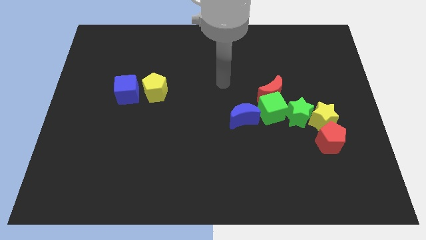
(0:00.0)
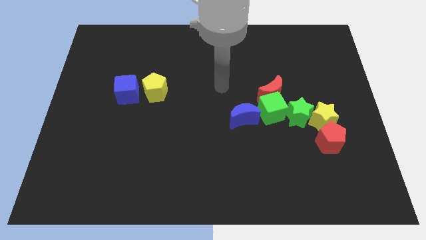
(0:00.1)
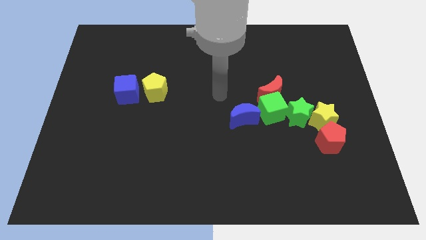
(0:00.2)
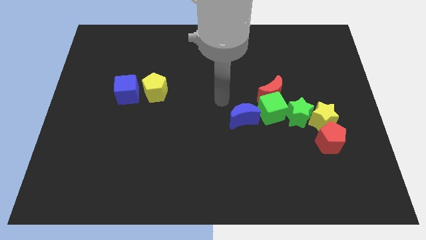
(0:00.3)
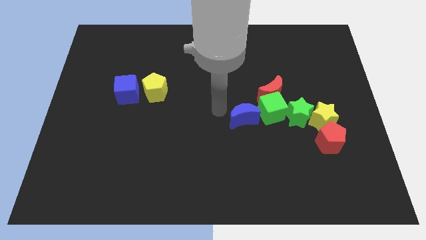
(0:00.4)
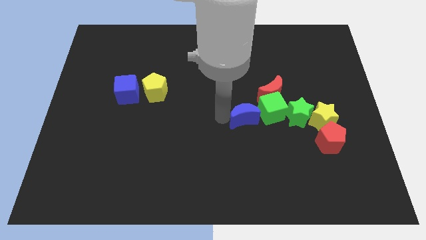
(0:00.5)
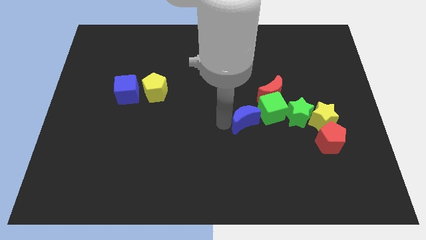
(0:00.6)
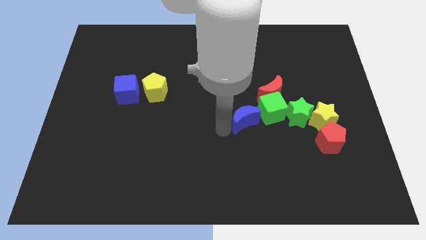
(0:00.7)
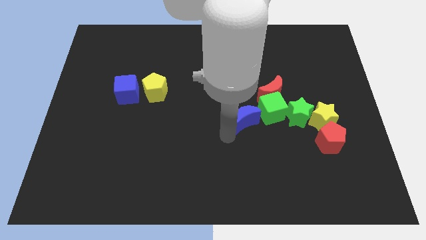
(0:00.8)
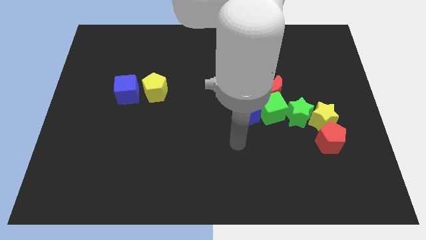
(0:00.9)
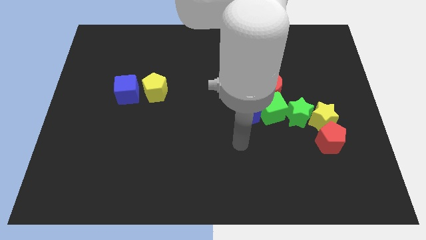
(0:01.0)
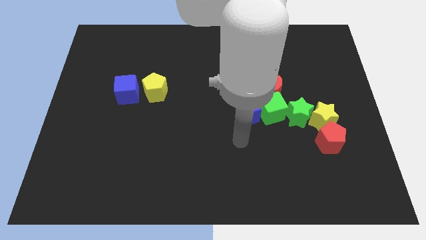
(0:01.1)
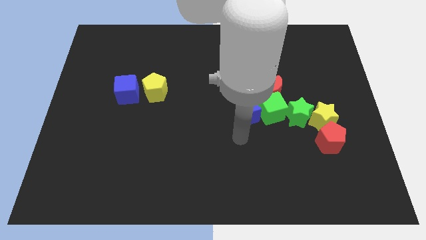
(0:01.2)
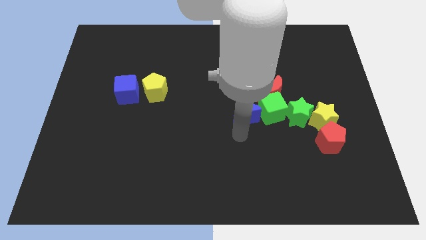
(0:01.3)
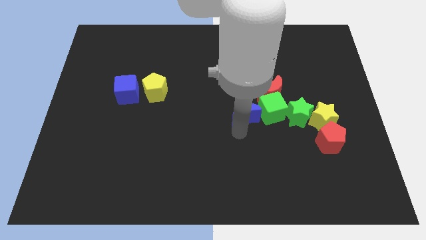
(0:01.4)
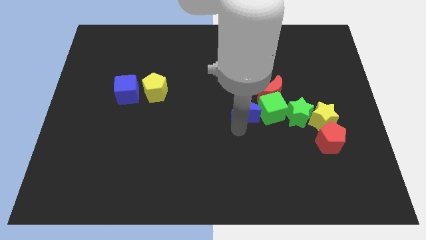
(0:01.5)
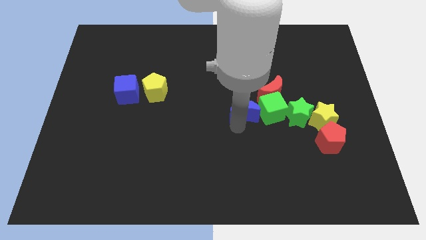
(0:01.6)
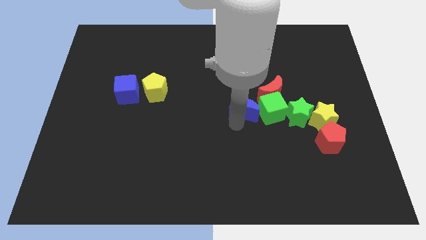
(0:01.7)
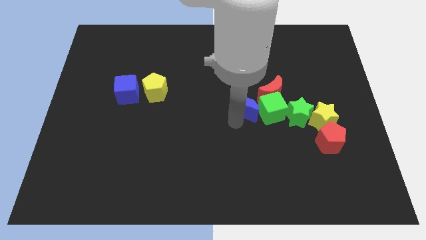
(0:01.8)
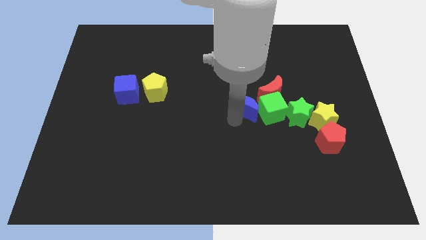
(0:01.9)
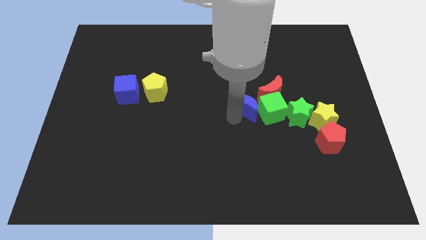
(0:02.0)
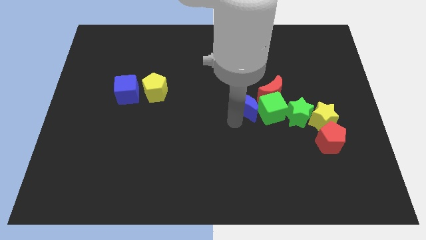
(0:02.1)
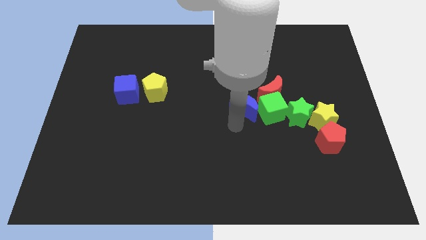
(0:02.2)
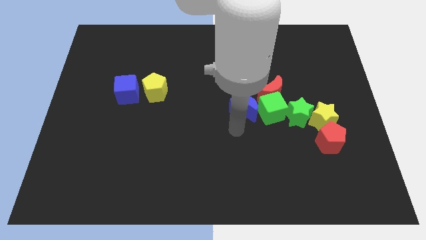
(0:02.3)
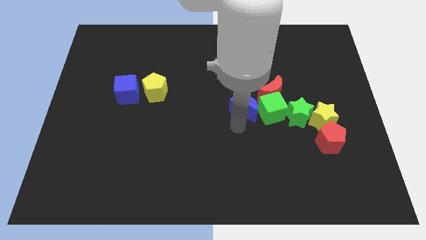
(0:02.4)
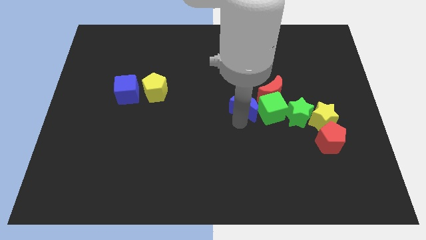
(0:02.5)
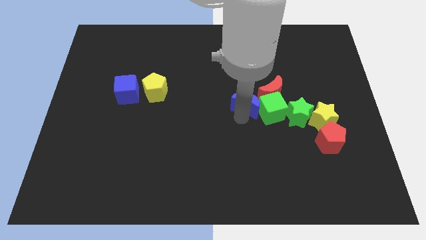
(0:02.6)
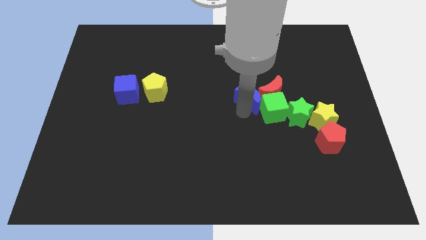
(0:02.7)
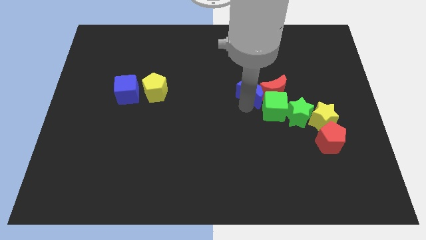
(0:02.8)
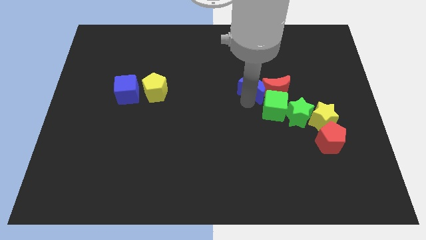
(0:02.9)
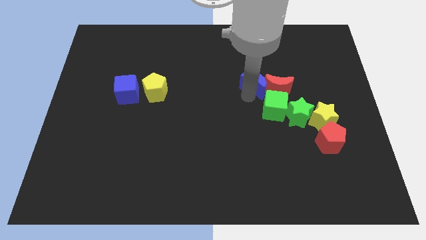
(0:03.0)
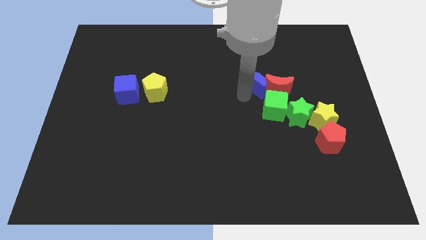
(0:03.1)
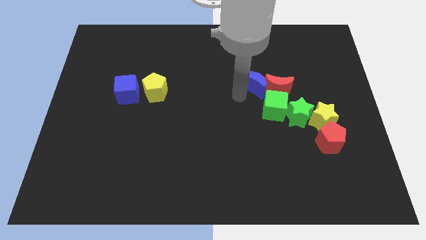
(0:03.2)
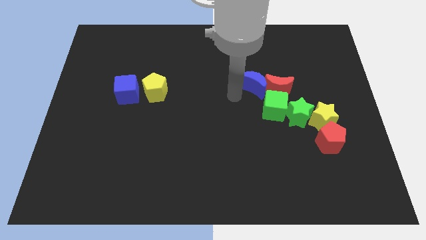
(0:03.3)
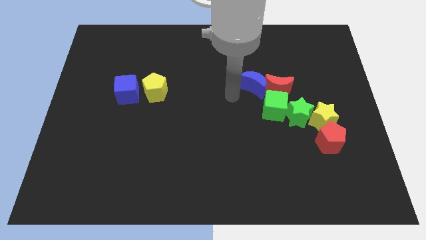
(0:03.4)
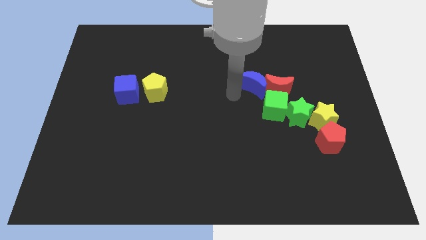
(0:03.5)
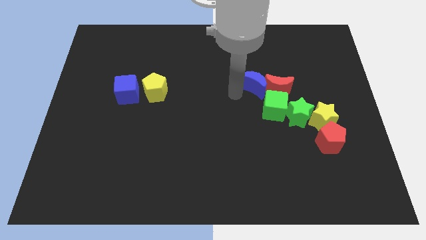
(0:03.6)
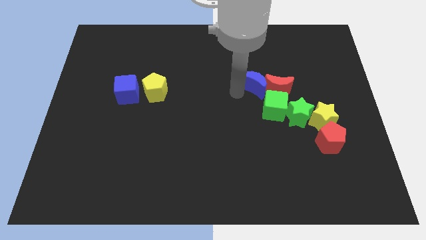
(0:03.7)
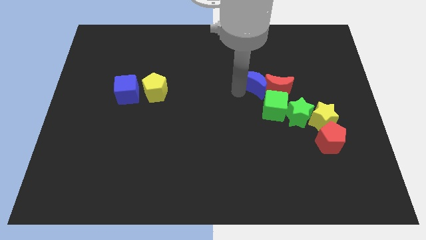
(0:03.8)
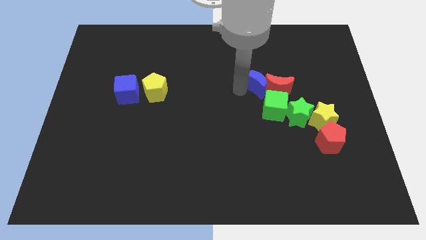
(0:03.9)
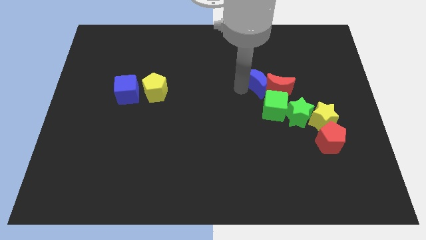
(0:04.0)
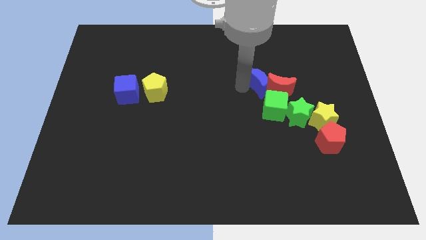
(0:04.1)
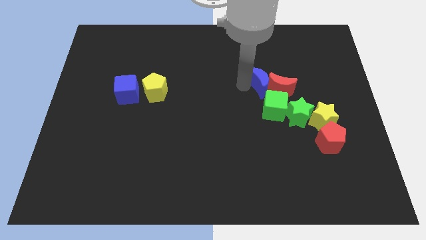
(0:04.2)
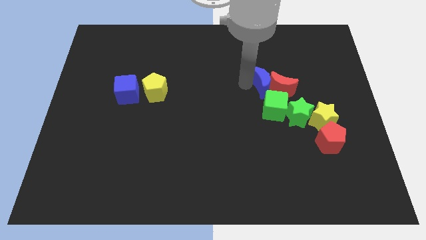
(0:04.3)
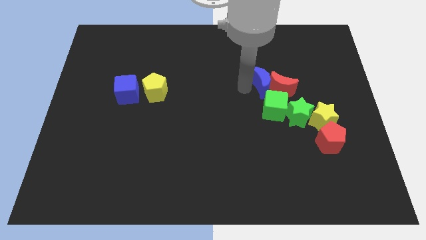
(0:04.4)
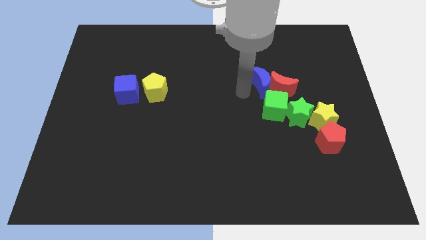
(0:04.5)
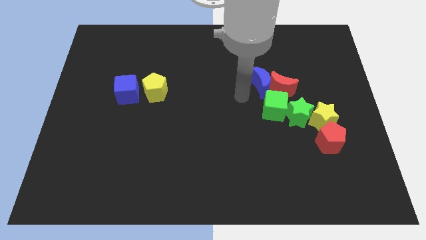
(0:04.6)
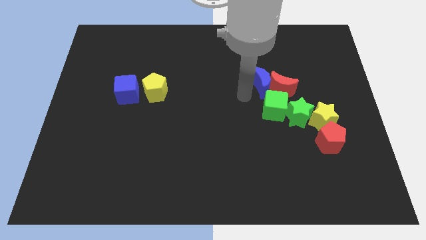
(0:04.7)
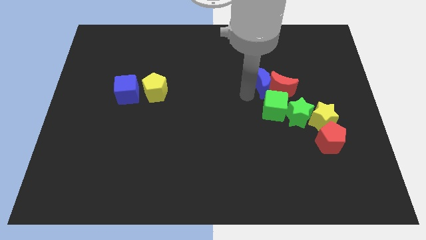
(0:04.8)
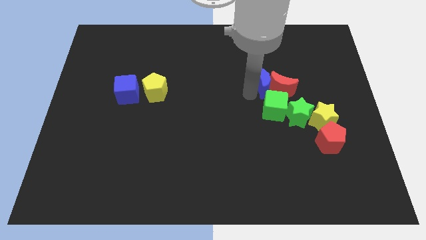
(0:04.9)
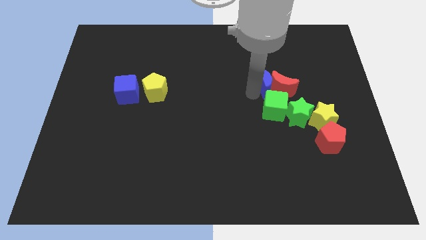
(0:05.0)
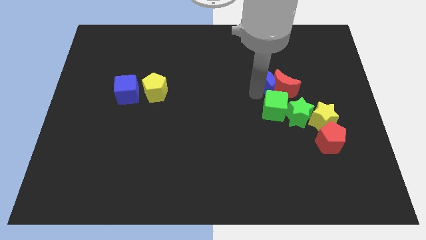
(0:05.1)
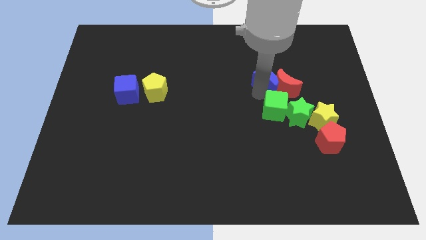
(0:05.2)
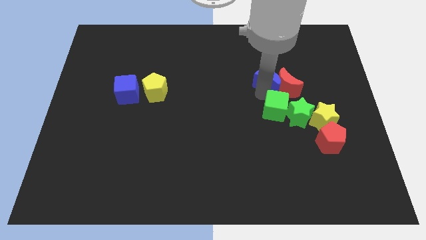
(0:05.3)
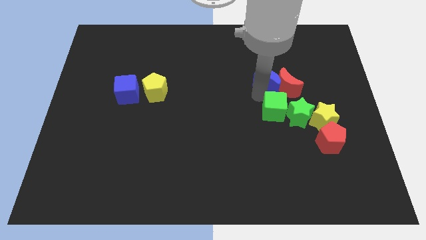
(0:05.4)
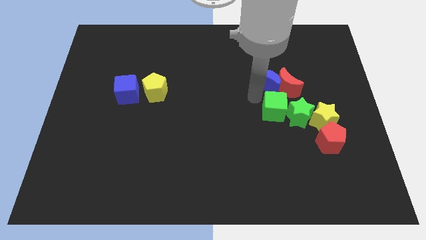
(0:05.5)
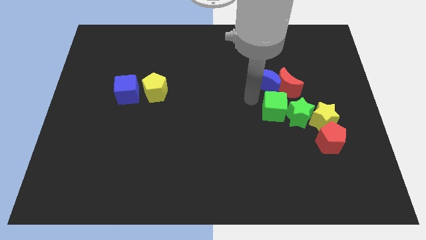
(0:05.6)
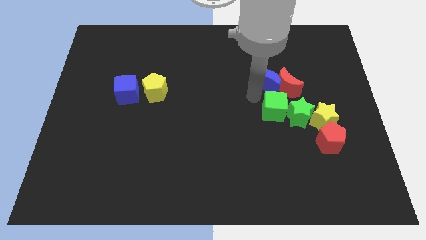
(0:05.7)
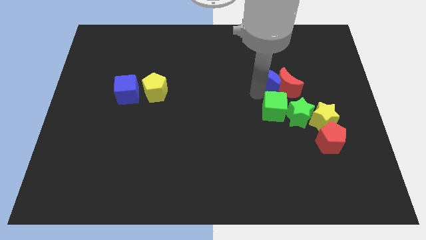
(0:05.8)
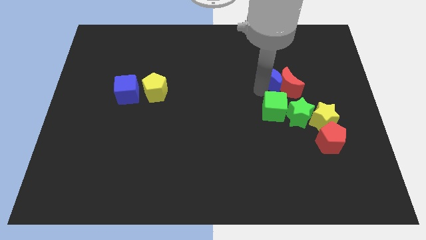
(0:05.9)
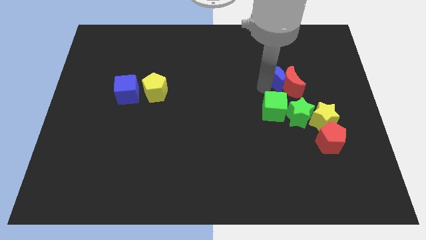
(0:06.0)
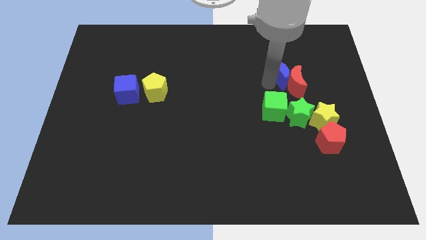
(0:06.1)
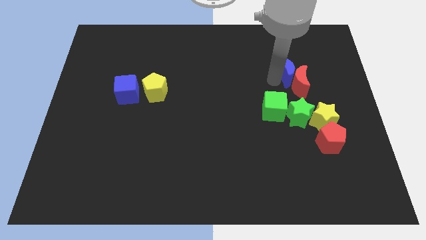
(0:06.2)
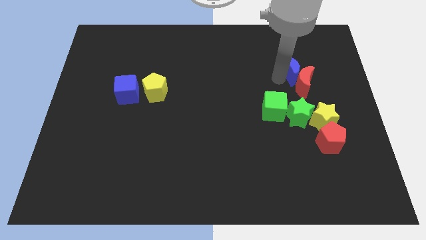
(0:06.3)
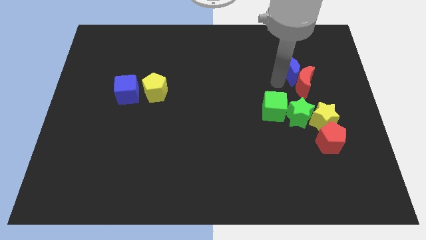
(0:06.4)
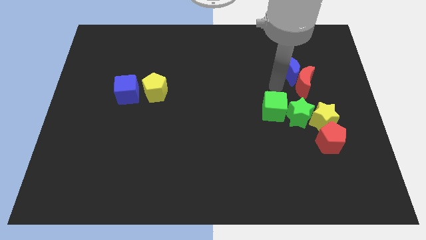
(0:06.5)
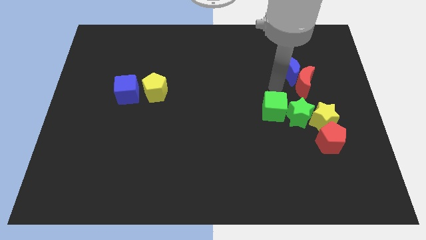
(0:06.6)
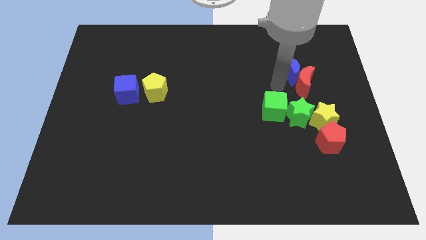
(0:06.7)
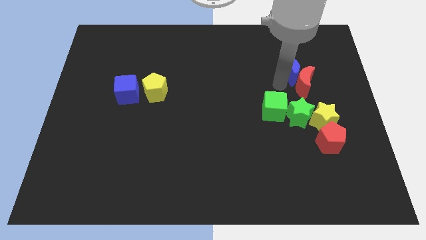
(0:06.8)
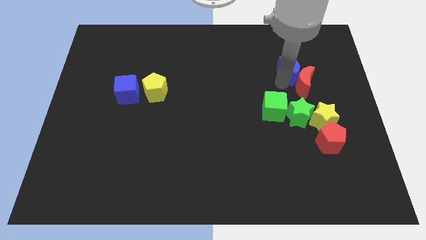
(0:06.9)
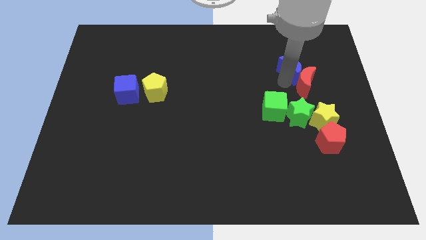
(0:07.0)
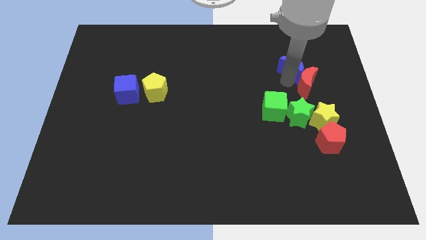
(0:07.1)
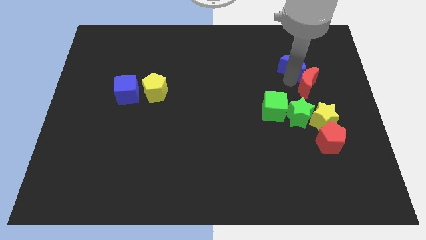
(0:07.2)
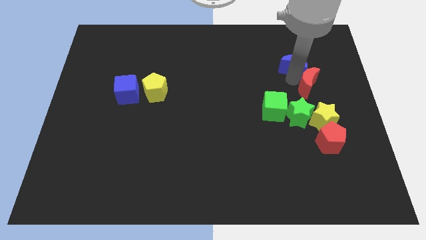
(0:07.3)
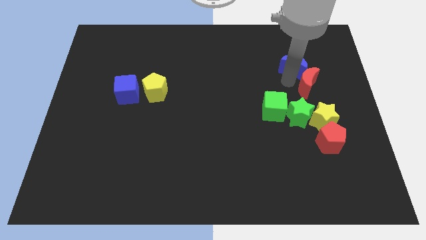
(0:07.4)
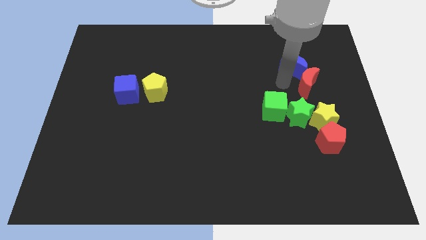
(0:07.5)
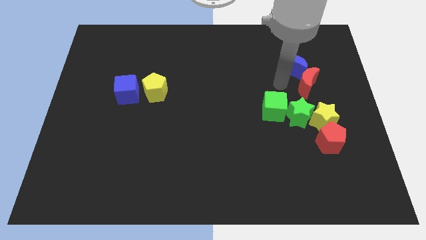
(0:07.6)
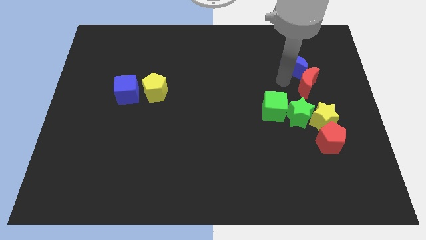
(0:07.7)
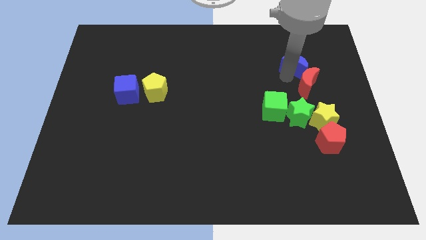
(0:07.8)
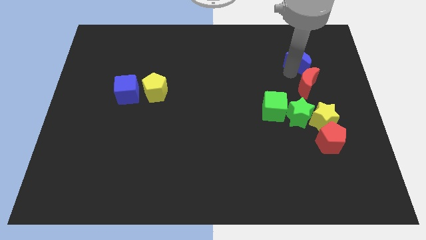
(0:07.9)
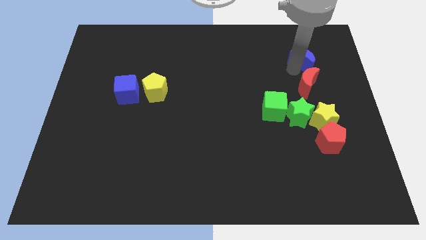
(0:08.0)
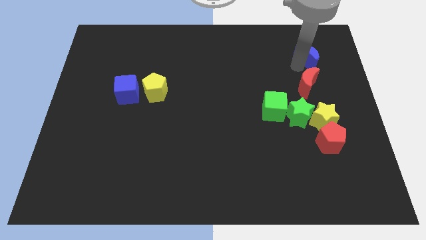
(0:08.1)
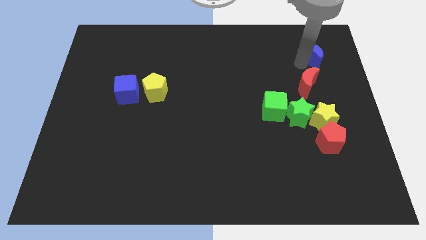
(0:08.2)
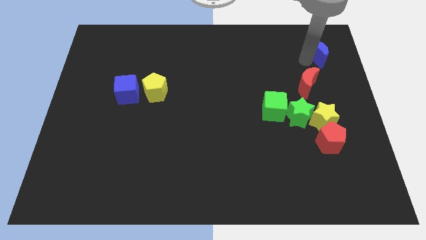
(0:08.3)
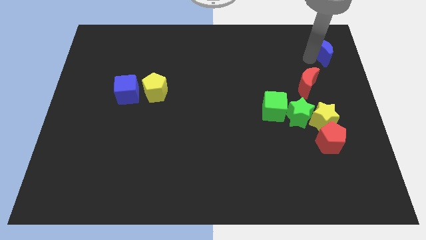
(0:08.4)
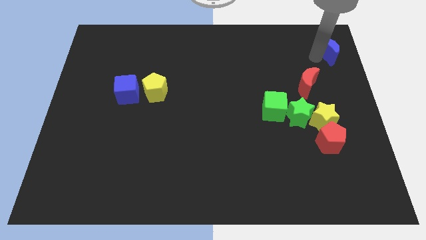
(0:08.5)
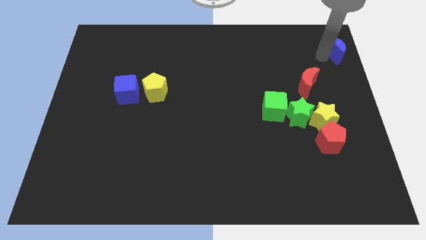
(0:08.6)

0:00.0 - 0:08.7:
push the blue moon to the upper right corner
